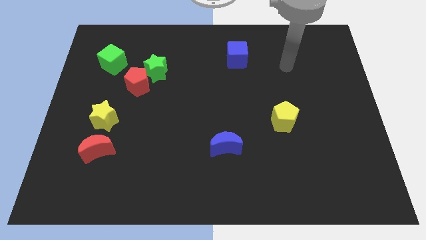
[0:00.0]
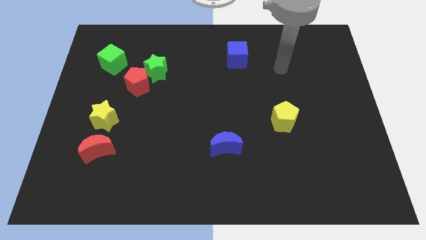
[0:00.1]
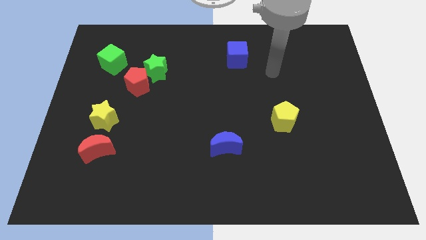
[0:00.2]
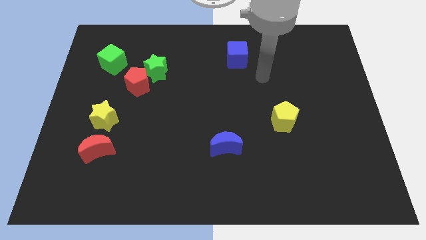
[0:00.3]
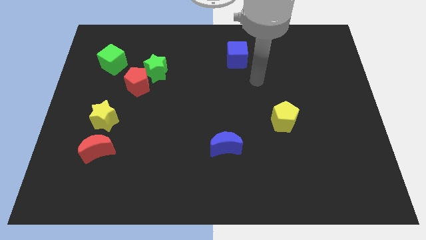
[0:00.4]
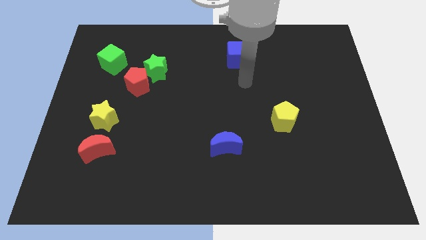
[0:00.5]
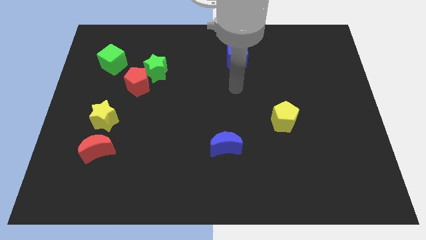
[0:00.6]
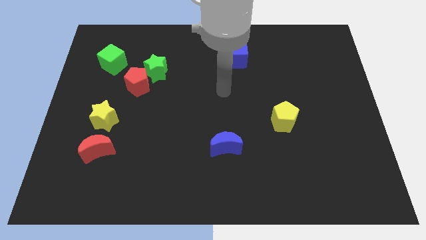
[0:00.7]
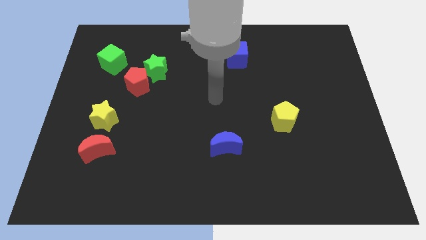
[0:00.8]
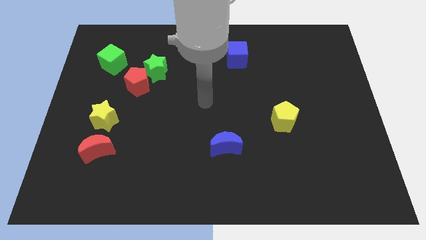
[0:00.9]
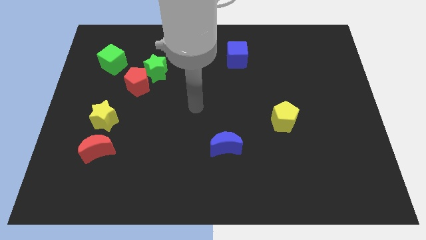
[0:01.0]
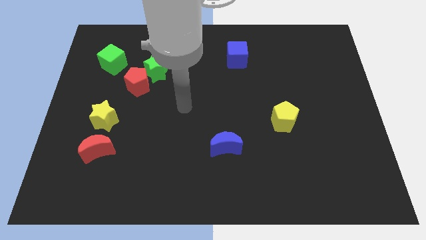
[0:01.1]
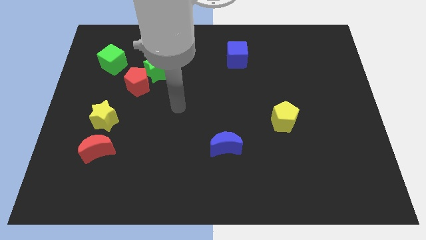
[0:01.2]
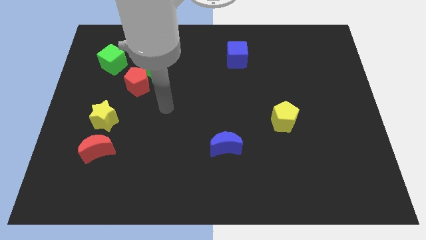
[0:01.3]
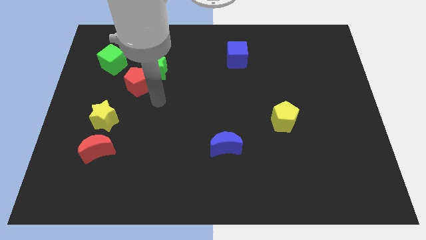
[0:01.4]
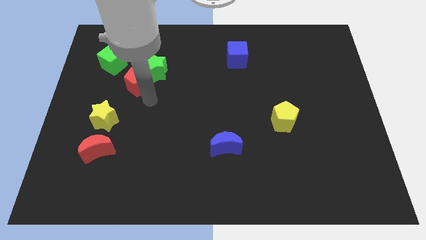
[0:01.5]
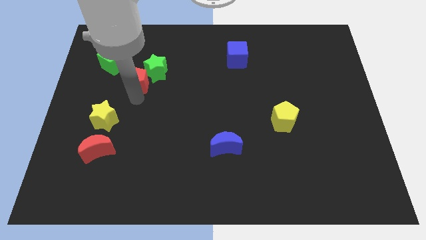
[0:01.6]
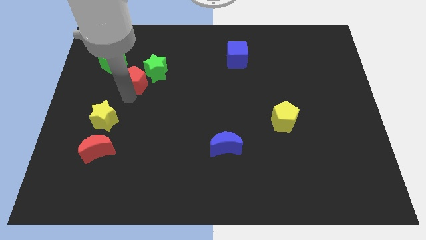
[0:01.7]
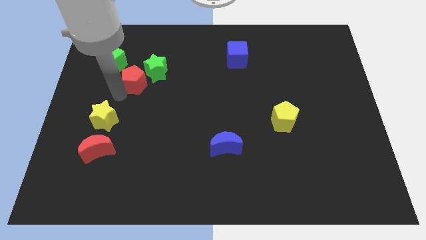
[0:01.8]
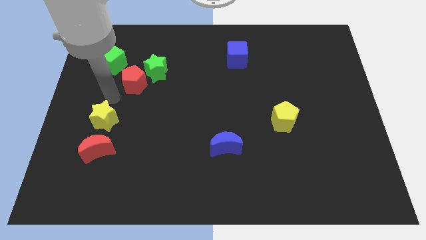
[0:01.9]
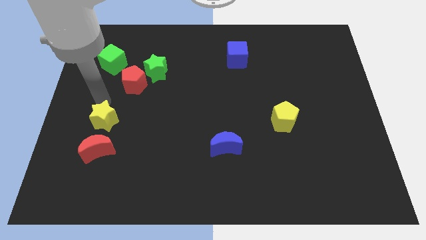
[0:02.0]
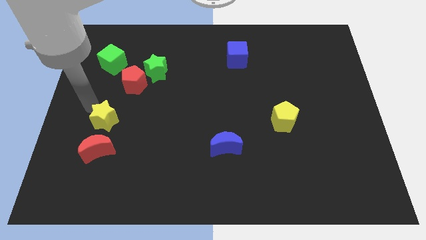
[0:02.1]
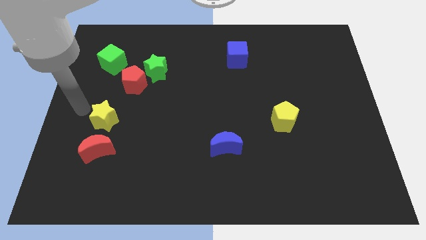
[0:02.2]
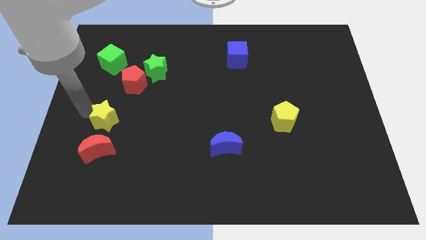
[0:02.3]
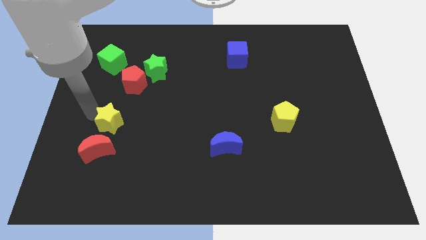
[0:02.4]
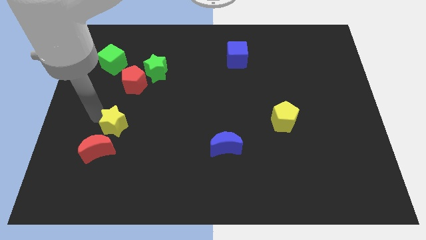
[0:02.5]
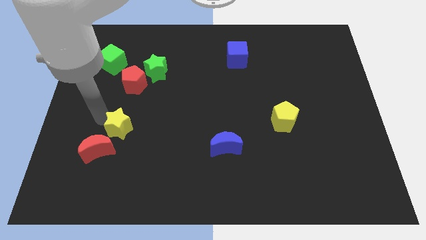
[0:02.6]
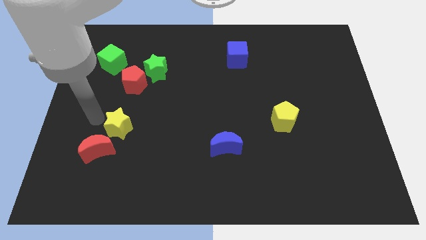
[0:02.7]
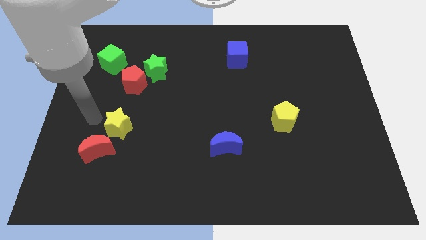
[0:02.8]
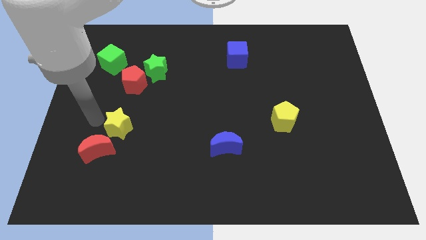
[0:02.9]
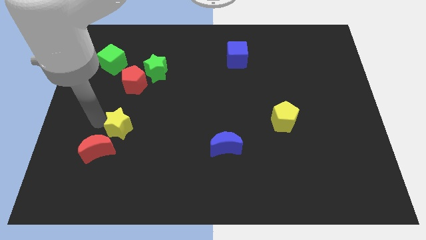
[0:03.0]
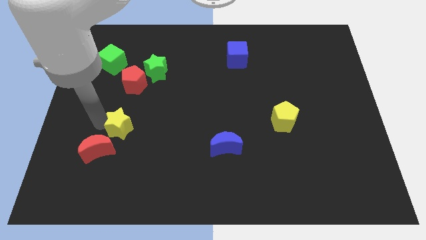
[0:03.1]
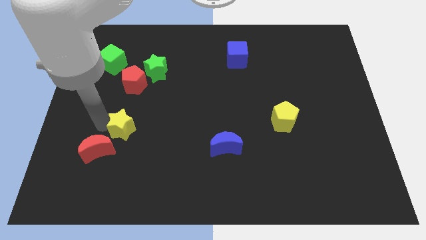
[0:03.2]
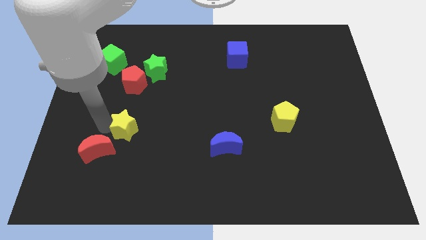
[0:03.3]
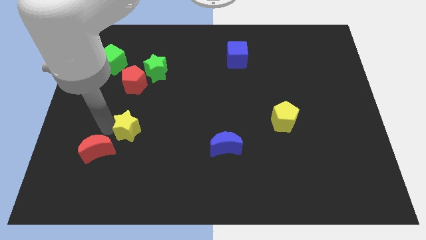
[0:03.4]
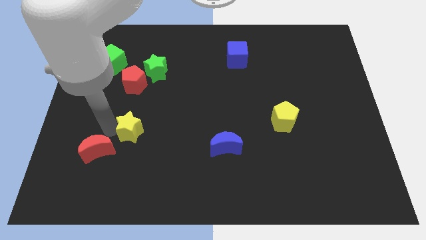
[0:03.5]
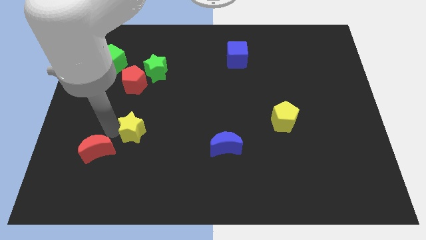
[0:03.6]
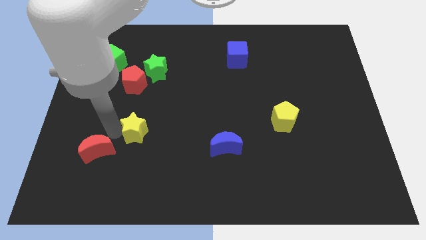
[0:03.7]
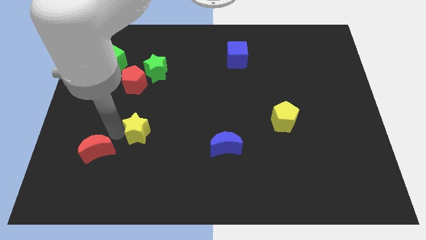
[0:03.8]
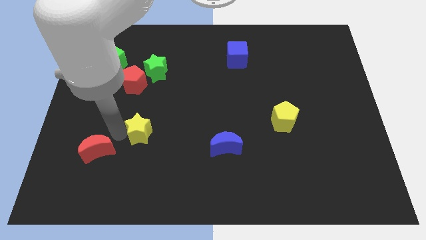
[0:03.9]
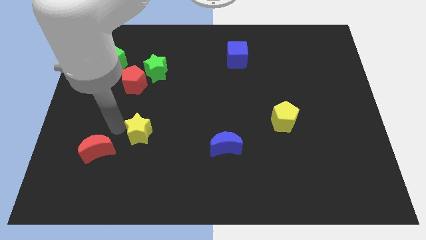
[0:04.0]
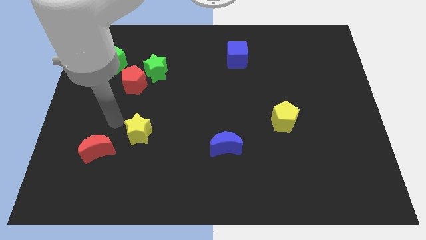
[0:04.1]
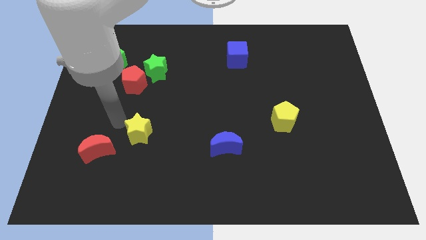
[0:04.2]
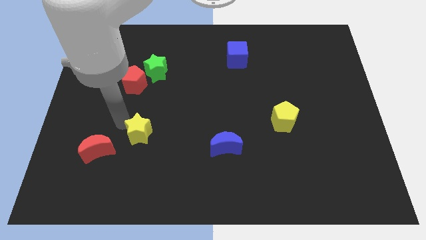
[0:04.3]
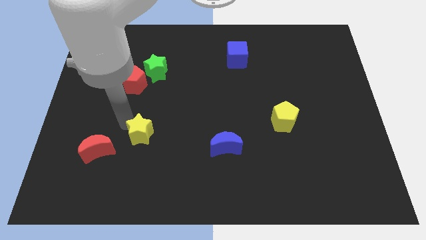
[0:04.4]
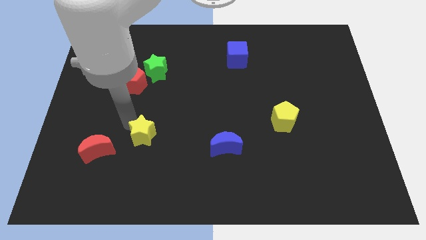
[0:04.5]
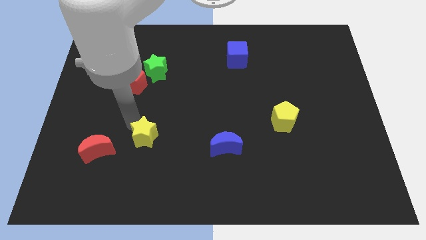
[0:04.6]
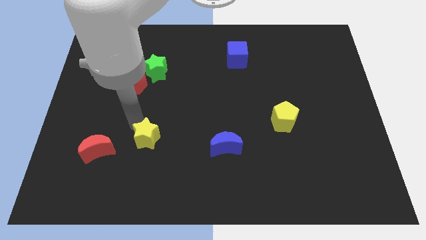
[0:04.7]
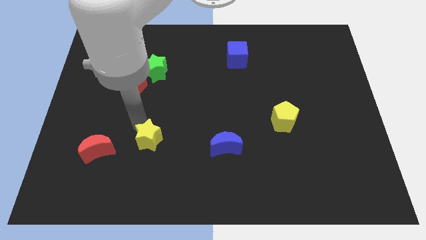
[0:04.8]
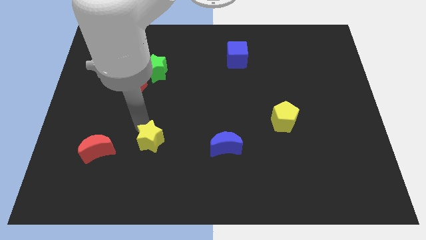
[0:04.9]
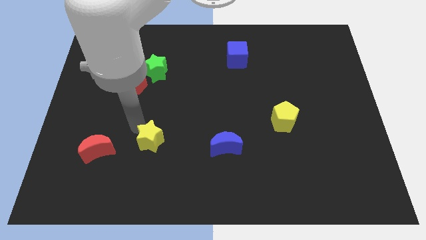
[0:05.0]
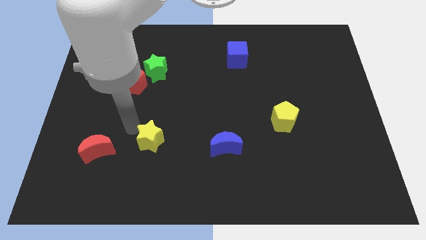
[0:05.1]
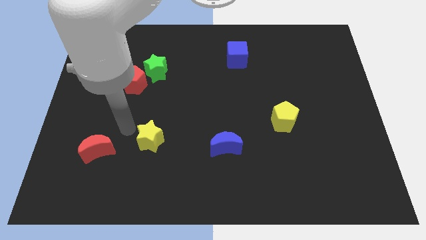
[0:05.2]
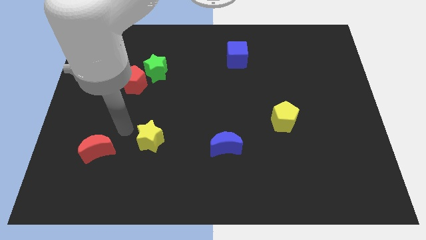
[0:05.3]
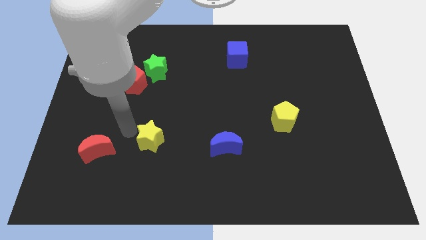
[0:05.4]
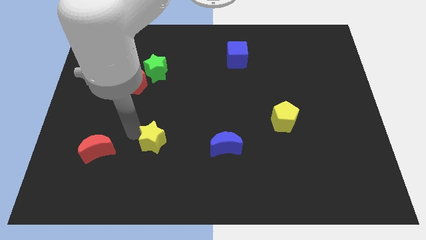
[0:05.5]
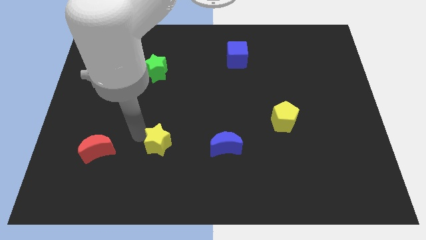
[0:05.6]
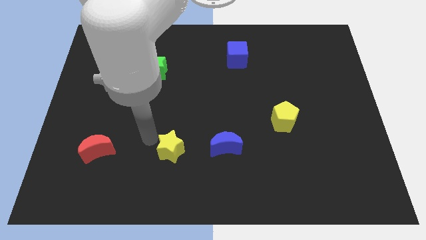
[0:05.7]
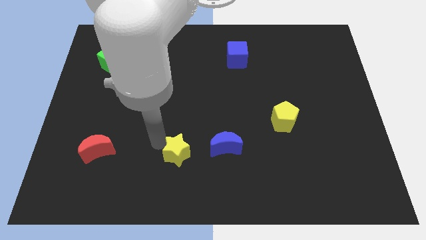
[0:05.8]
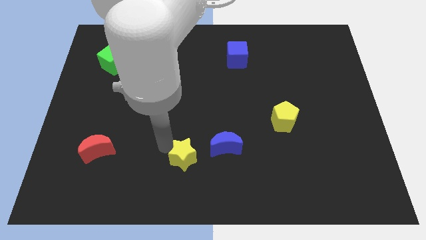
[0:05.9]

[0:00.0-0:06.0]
slide the yellow star to the bottom left of the blue moon

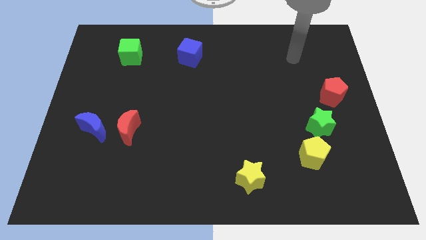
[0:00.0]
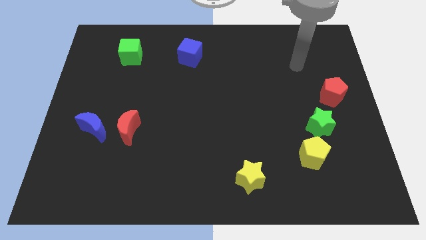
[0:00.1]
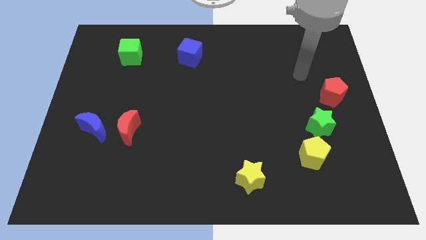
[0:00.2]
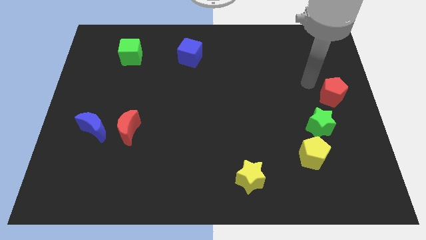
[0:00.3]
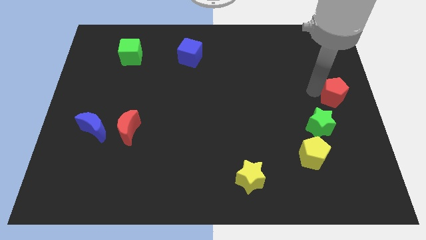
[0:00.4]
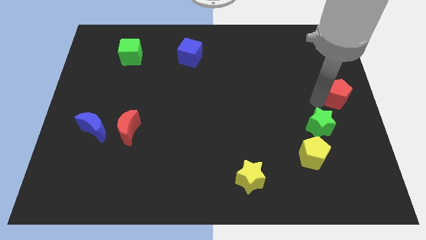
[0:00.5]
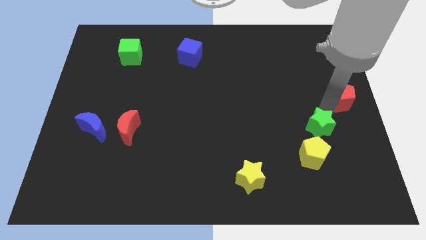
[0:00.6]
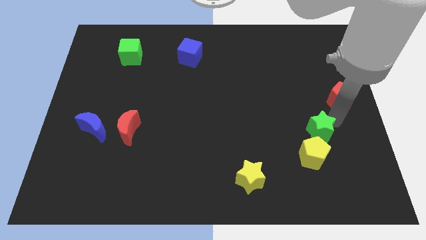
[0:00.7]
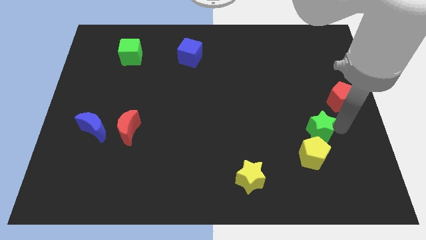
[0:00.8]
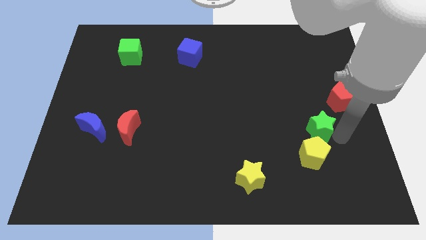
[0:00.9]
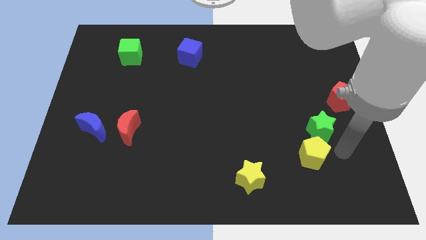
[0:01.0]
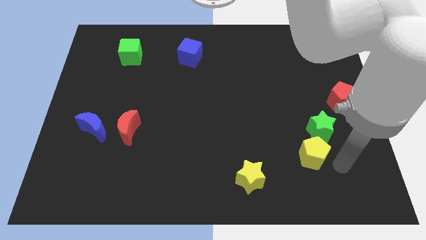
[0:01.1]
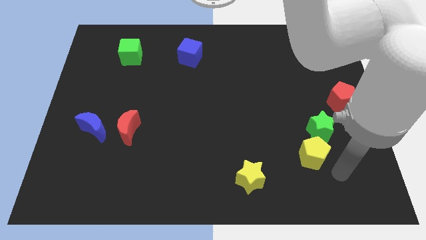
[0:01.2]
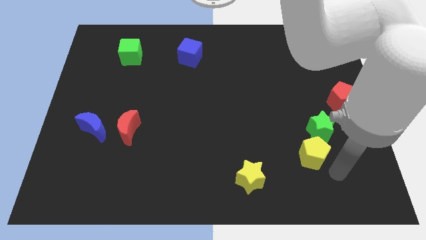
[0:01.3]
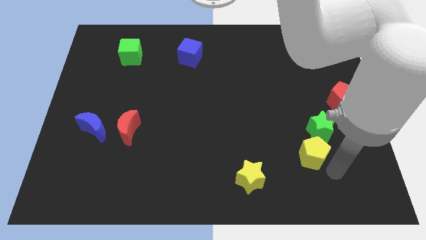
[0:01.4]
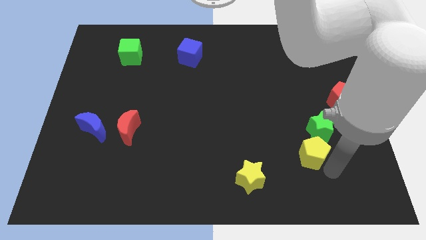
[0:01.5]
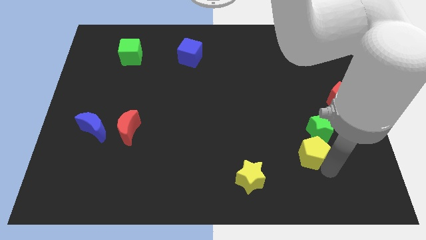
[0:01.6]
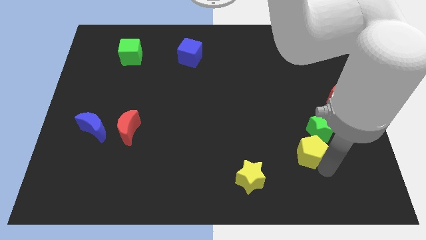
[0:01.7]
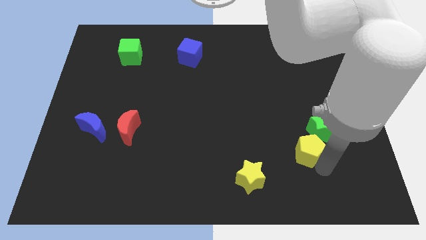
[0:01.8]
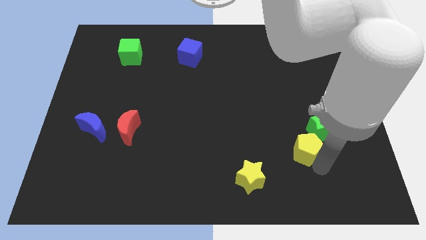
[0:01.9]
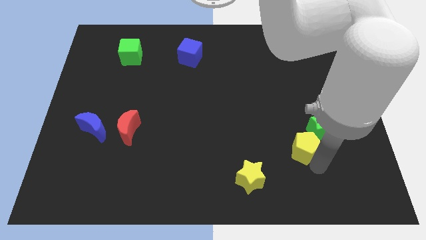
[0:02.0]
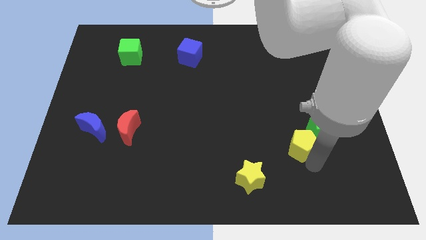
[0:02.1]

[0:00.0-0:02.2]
push the yellow pentagon just left of the green star
